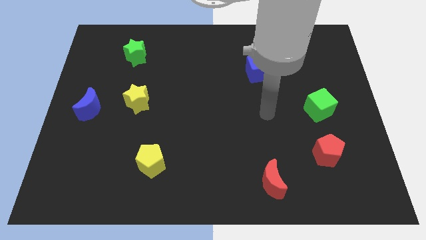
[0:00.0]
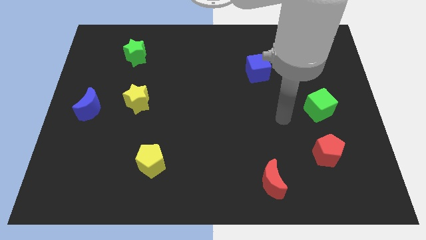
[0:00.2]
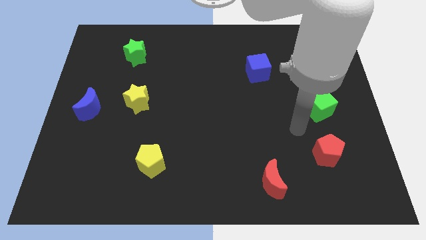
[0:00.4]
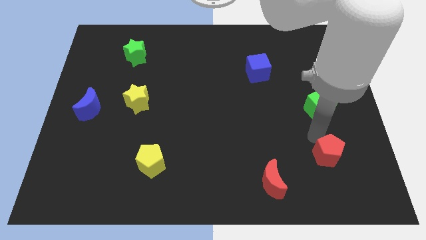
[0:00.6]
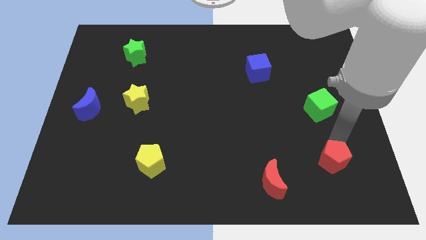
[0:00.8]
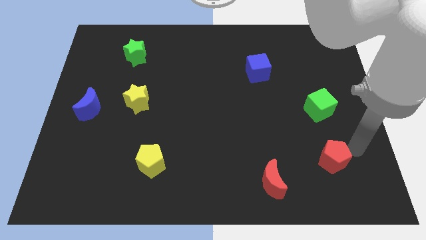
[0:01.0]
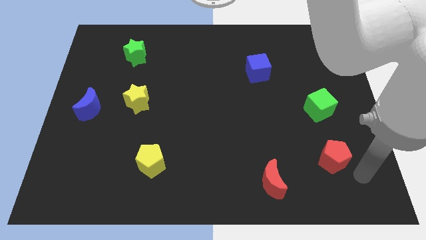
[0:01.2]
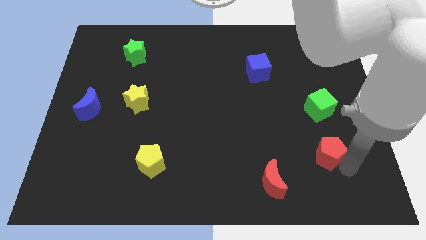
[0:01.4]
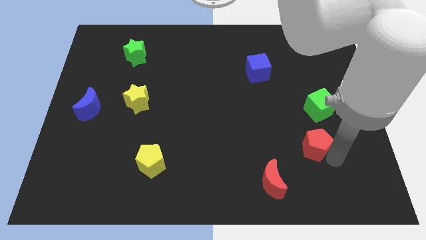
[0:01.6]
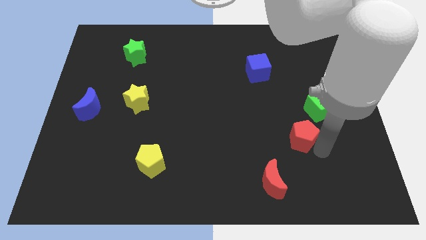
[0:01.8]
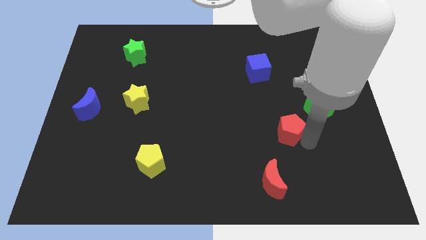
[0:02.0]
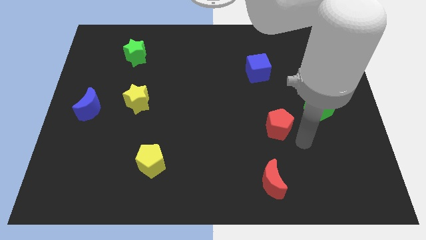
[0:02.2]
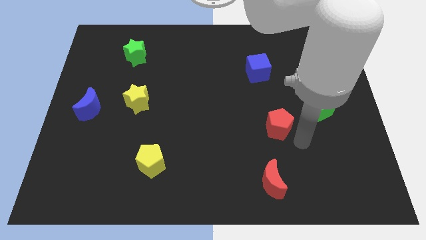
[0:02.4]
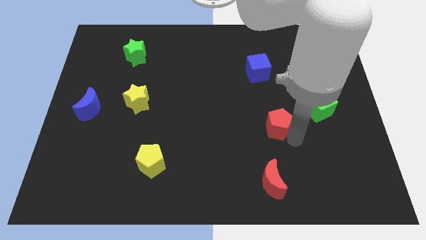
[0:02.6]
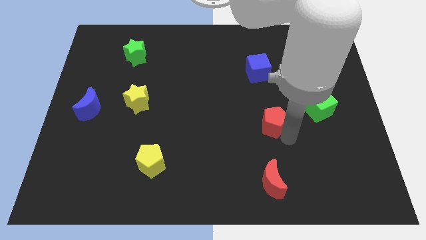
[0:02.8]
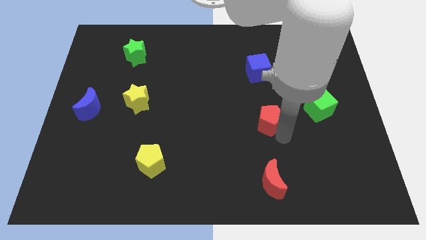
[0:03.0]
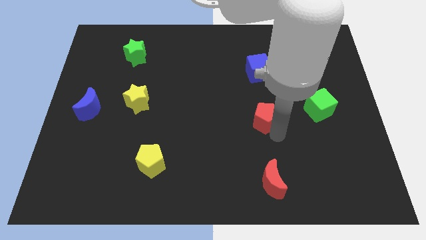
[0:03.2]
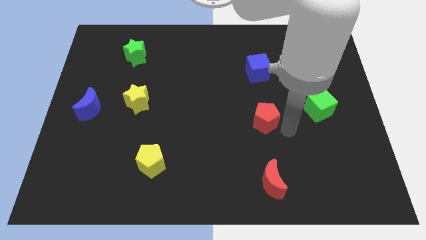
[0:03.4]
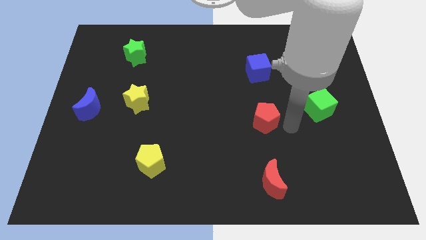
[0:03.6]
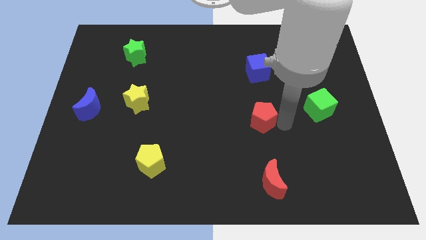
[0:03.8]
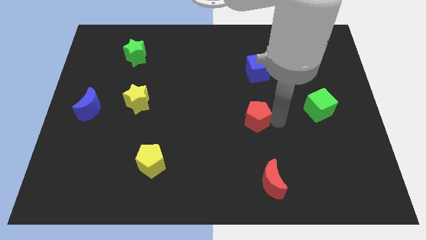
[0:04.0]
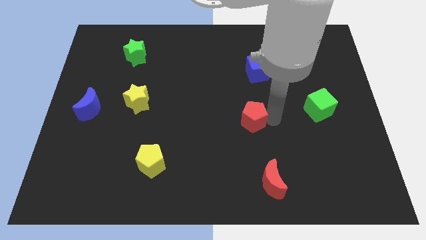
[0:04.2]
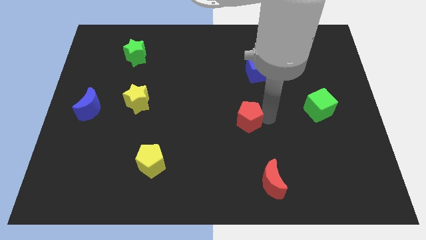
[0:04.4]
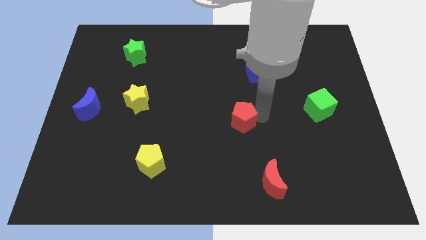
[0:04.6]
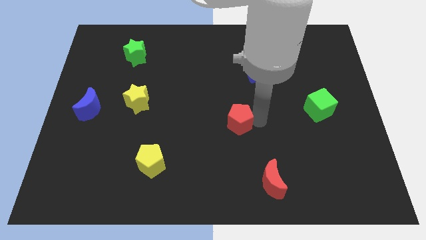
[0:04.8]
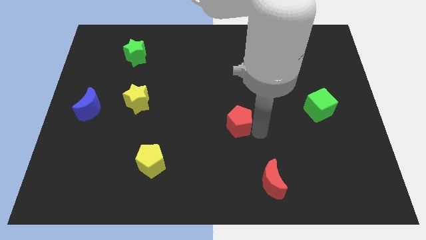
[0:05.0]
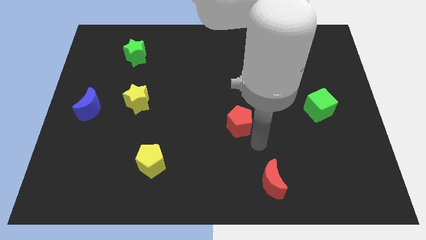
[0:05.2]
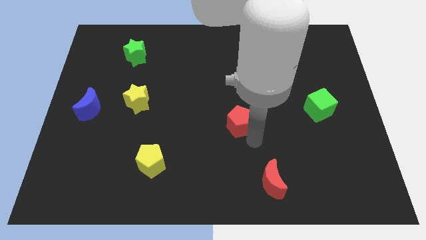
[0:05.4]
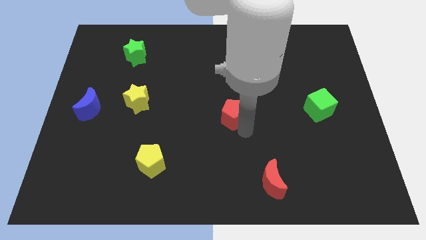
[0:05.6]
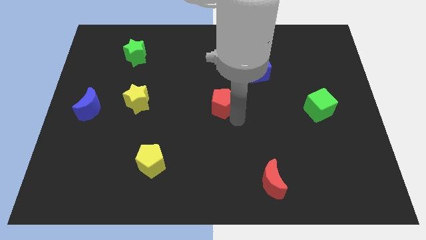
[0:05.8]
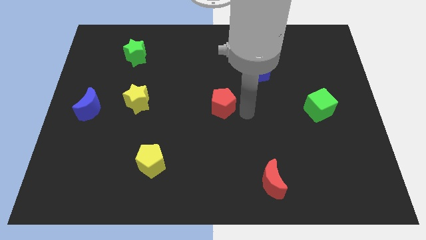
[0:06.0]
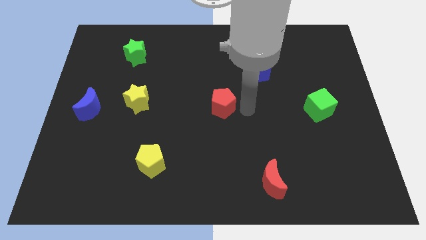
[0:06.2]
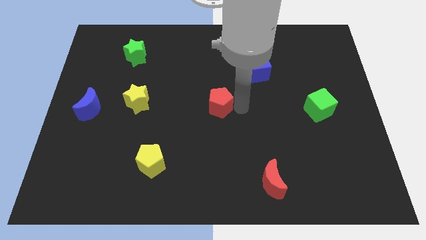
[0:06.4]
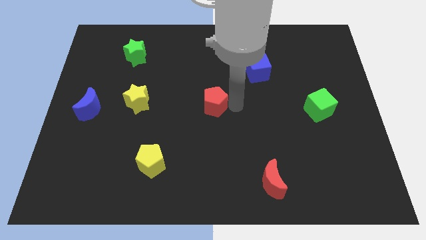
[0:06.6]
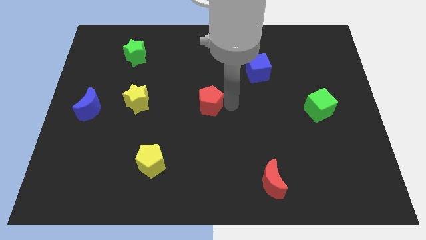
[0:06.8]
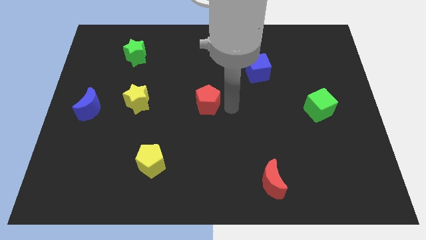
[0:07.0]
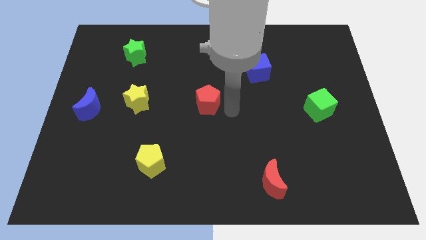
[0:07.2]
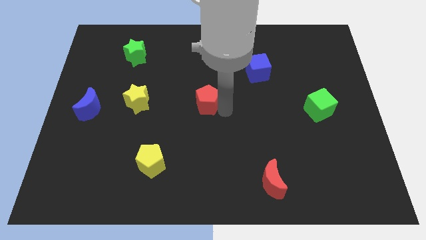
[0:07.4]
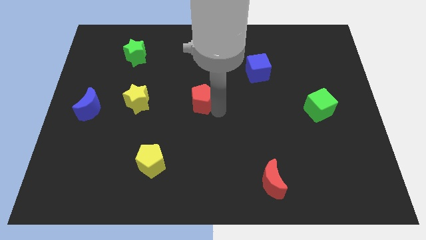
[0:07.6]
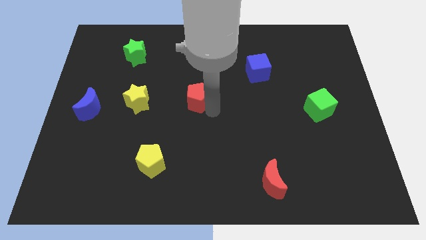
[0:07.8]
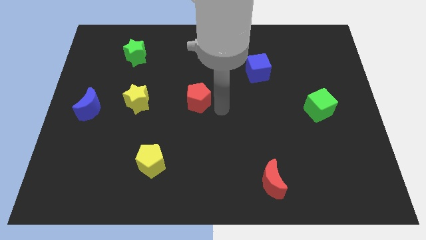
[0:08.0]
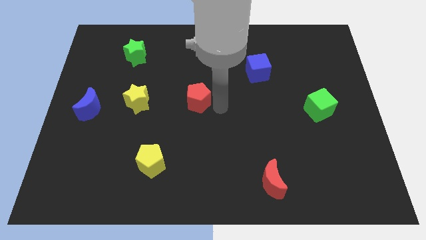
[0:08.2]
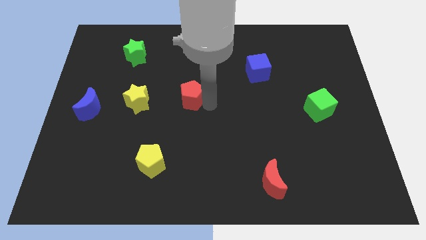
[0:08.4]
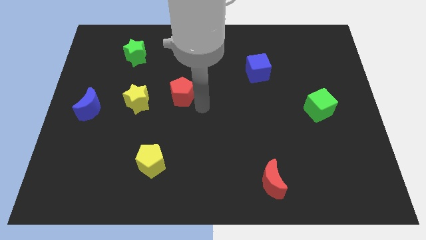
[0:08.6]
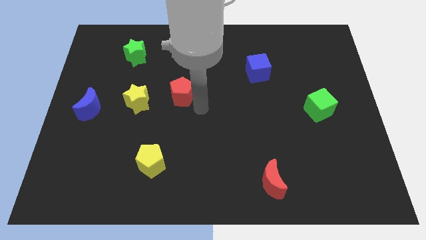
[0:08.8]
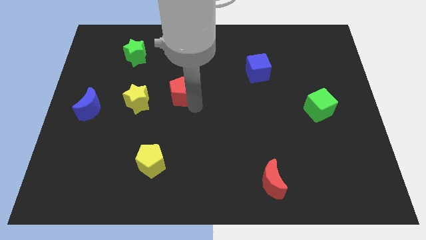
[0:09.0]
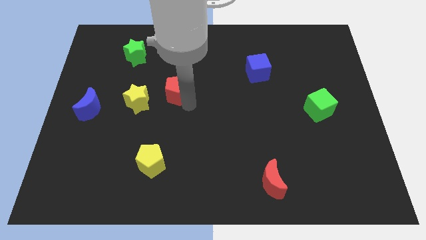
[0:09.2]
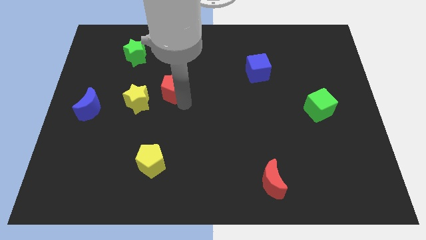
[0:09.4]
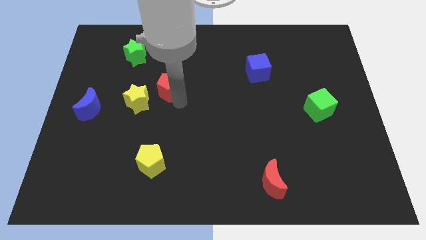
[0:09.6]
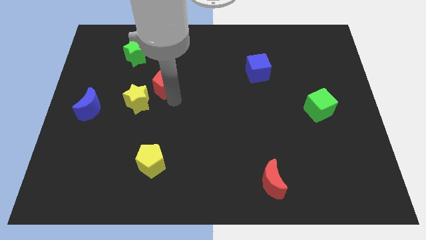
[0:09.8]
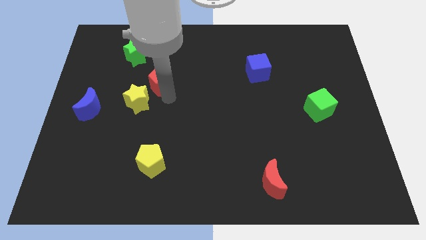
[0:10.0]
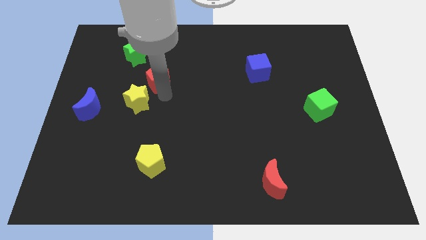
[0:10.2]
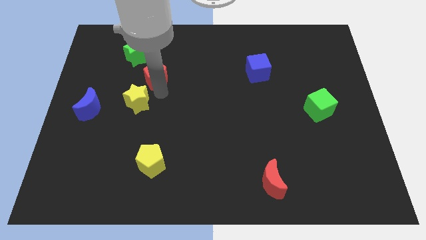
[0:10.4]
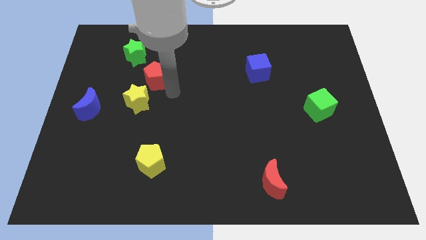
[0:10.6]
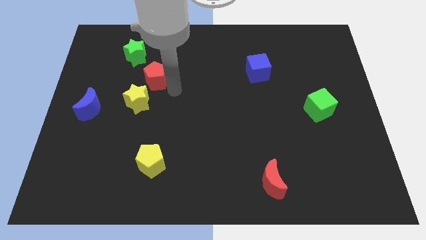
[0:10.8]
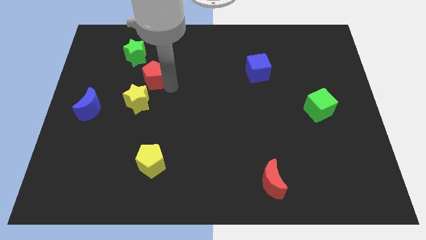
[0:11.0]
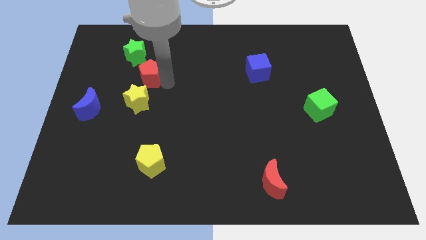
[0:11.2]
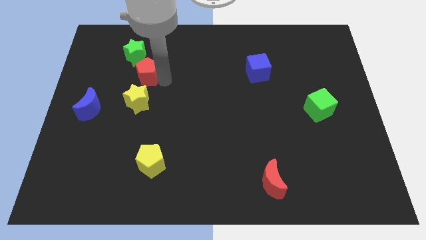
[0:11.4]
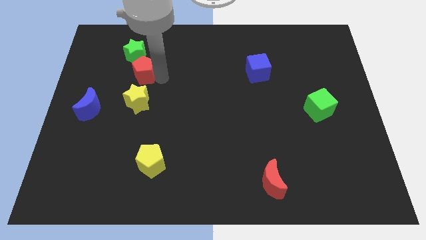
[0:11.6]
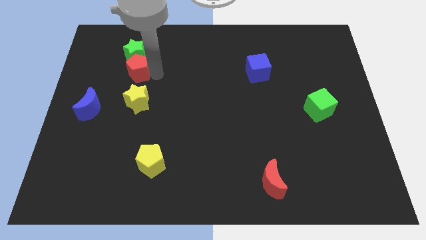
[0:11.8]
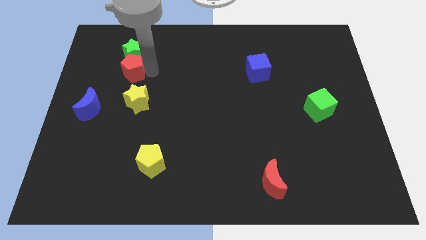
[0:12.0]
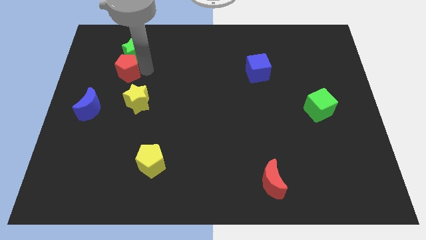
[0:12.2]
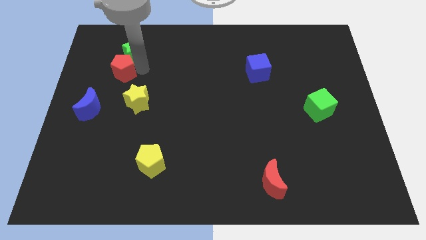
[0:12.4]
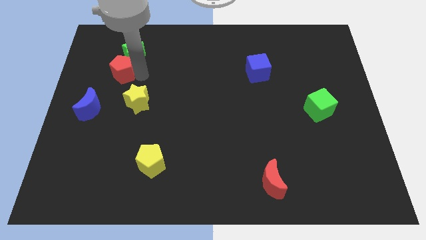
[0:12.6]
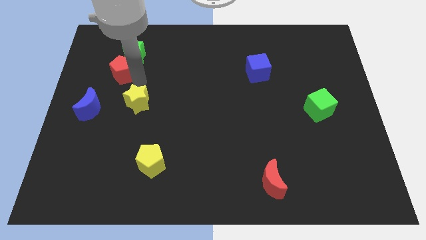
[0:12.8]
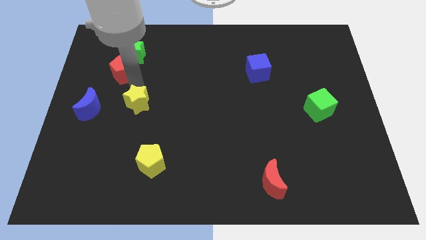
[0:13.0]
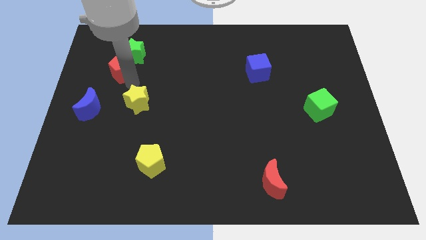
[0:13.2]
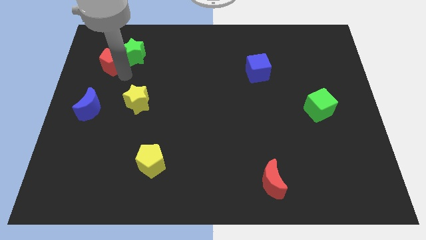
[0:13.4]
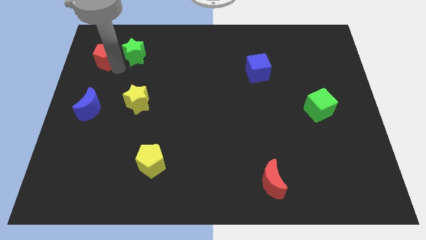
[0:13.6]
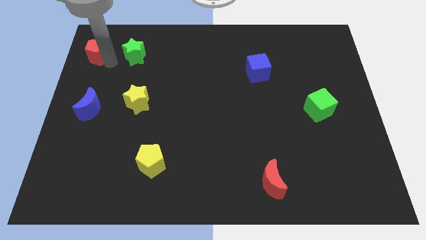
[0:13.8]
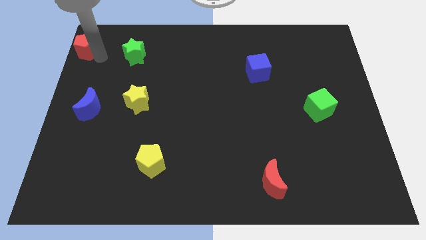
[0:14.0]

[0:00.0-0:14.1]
move the red pentagon to the top left of the board
